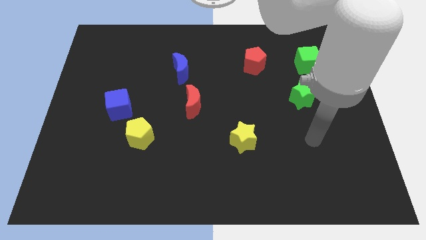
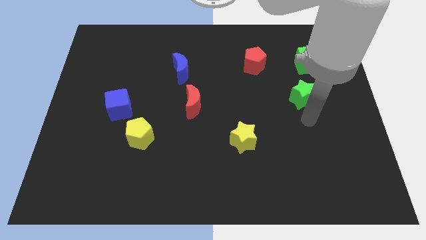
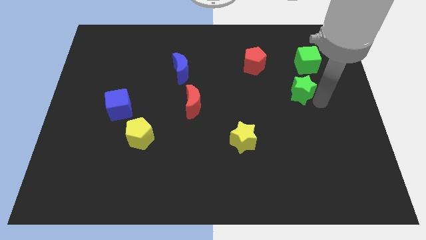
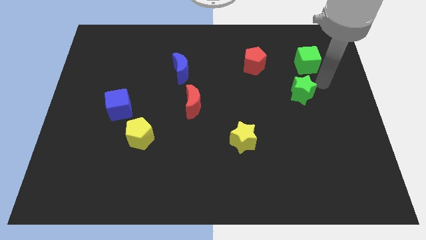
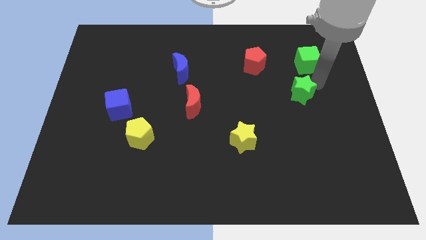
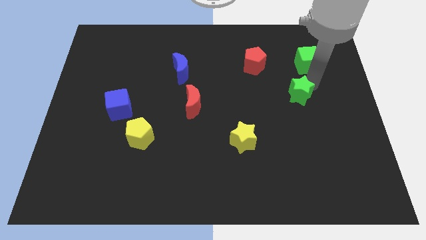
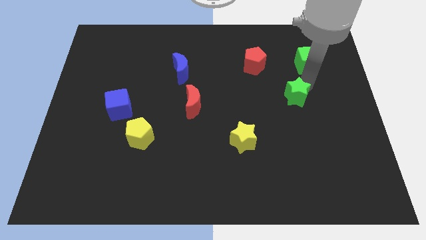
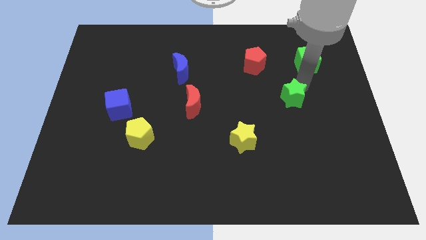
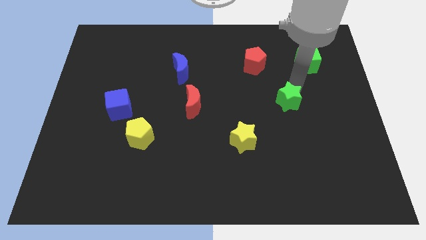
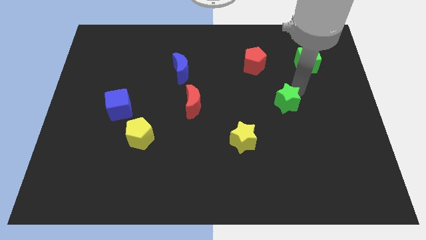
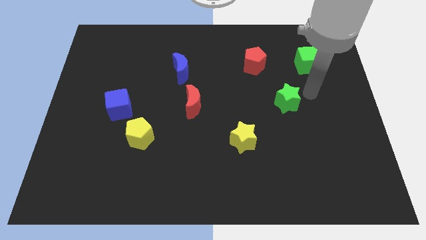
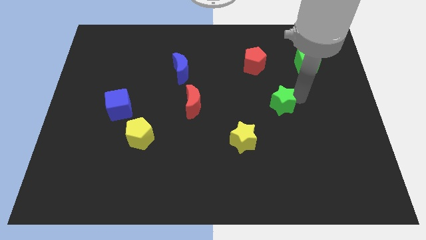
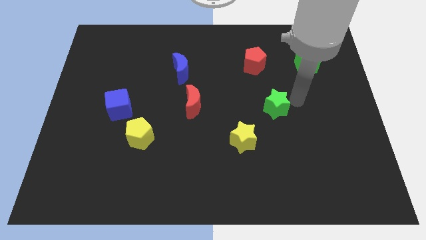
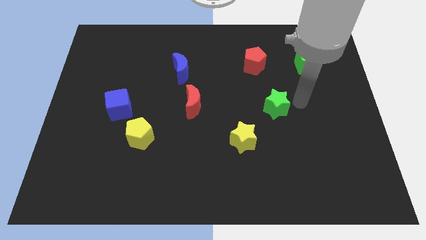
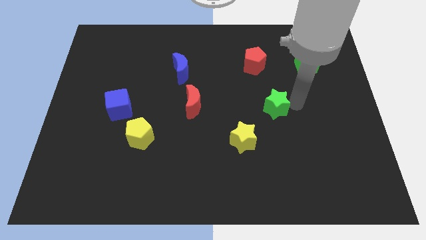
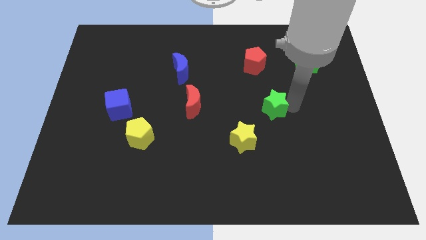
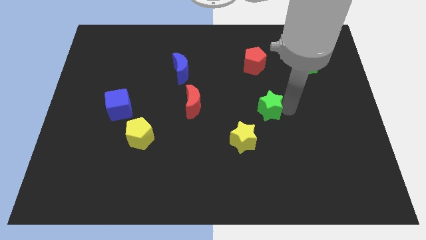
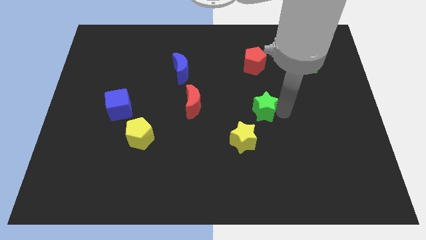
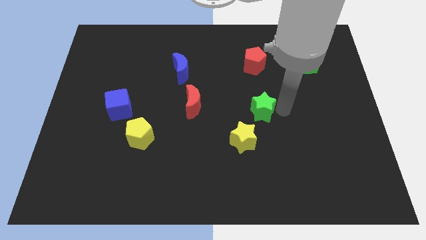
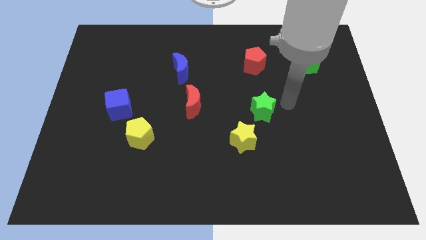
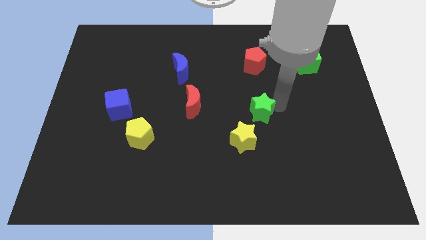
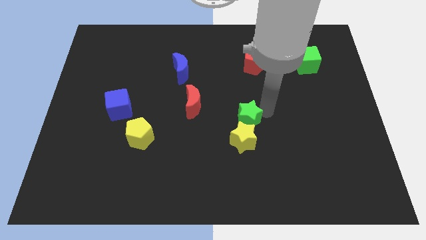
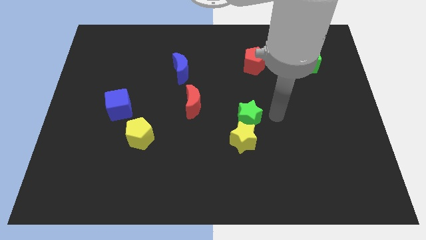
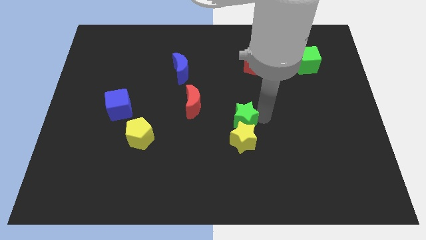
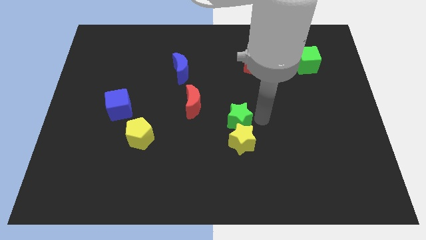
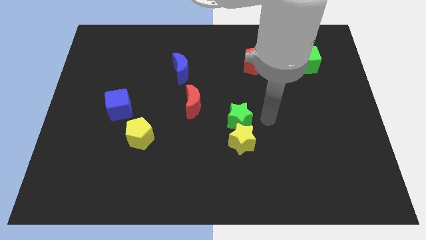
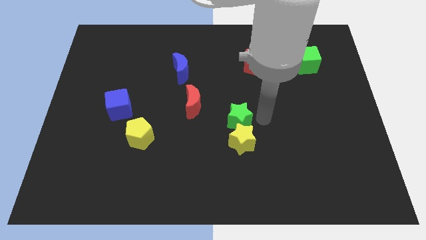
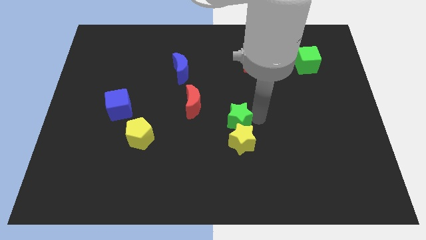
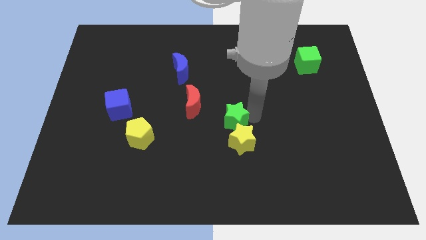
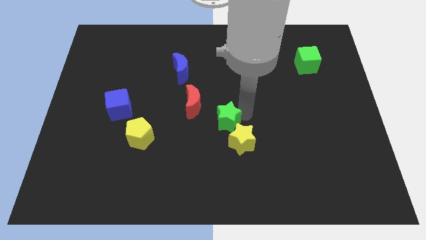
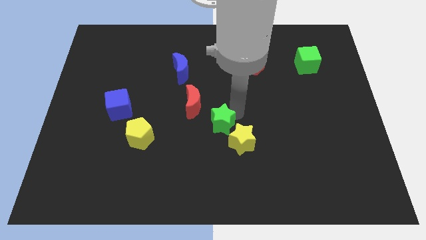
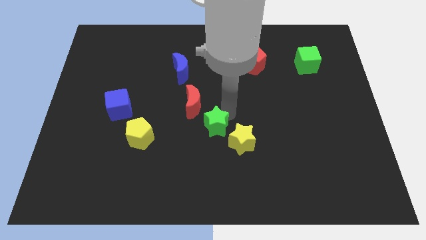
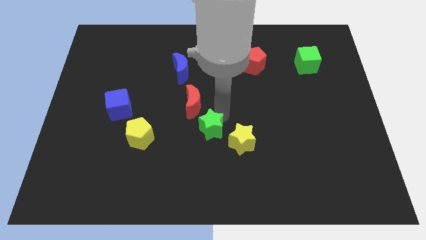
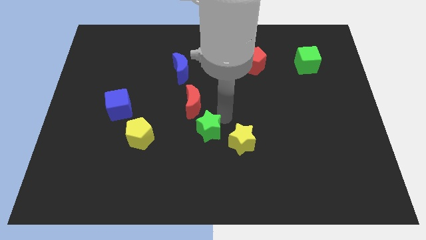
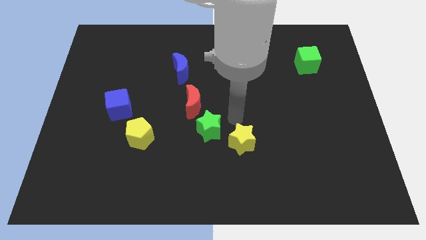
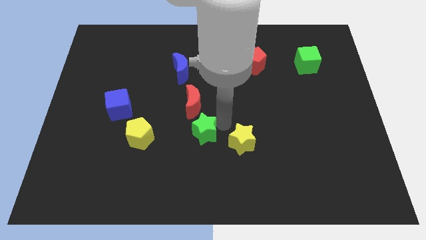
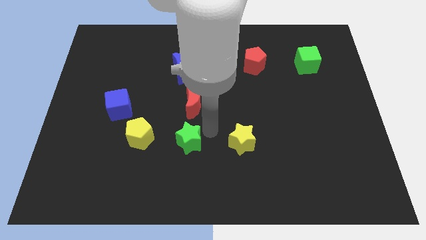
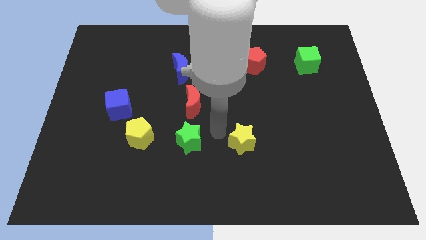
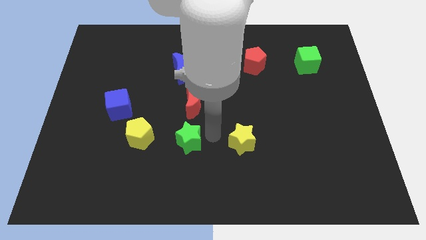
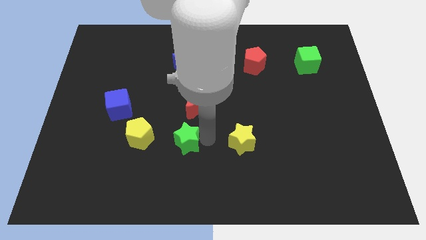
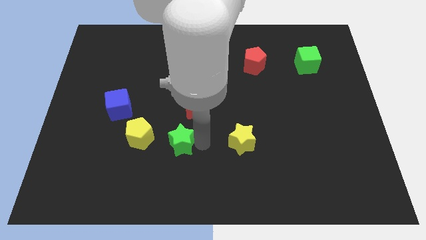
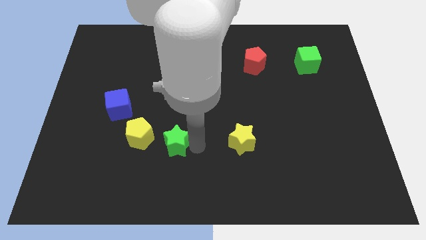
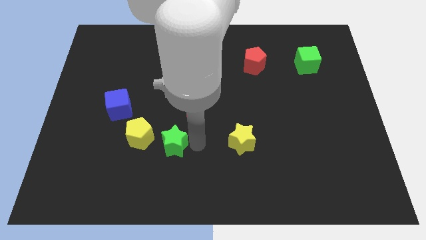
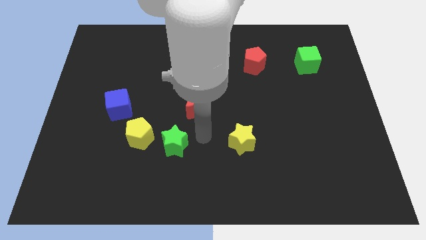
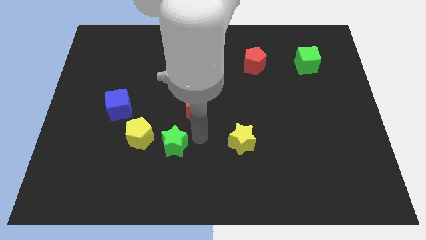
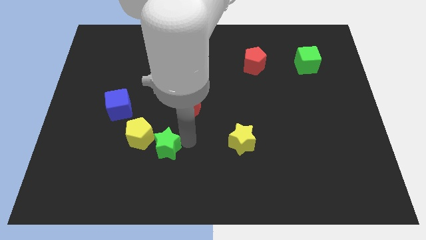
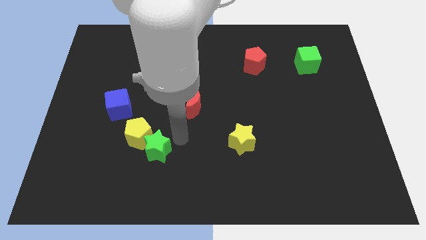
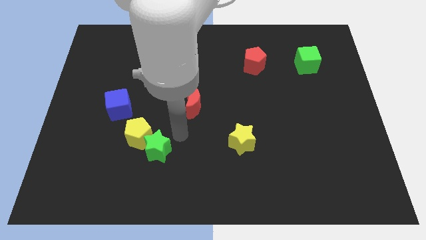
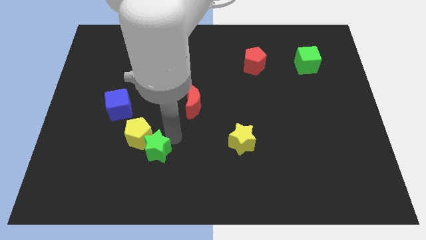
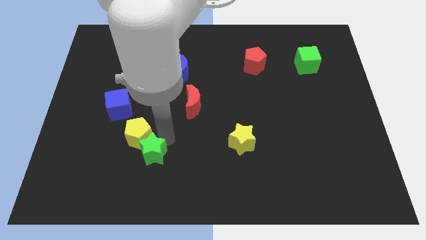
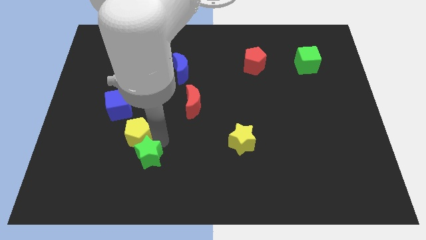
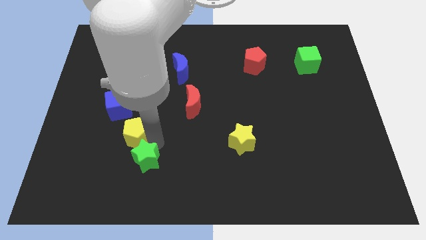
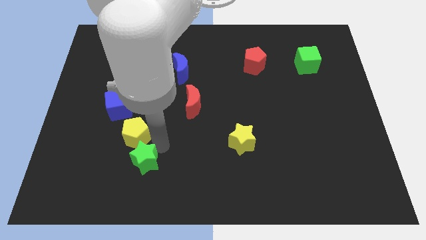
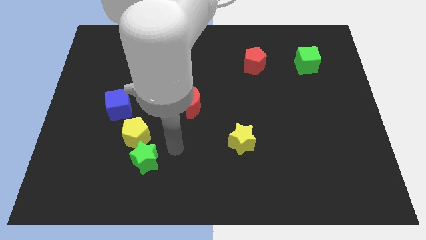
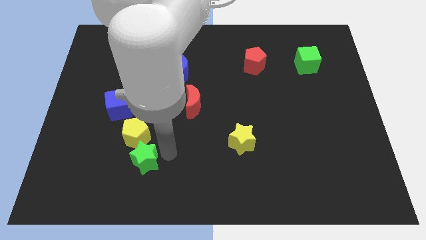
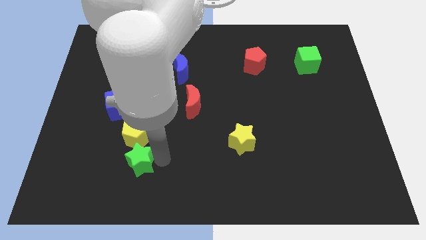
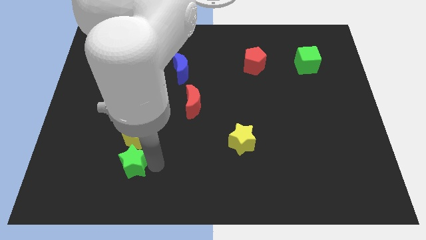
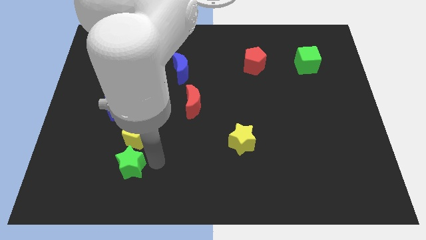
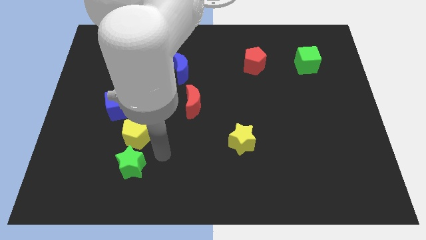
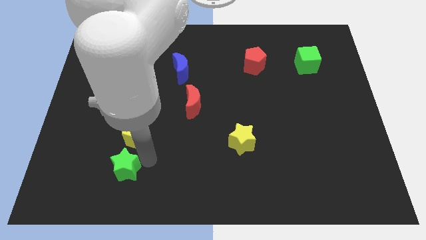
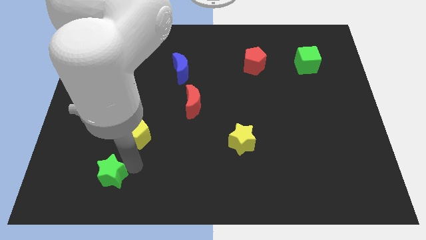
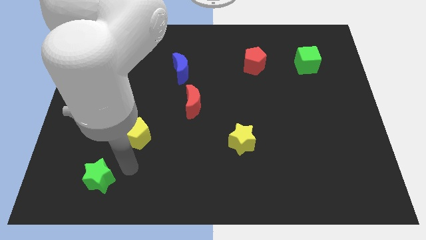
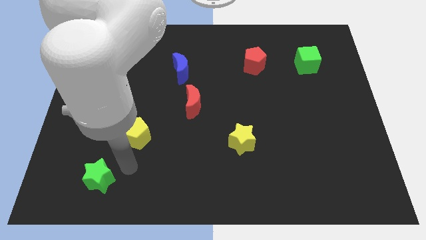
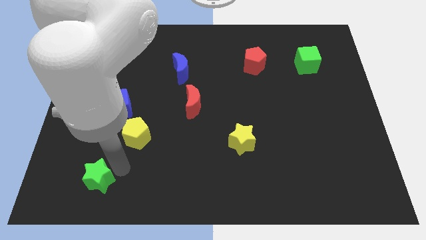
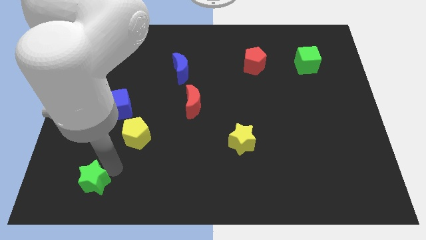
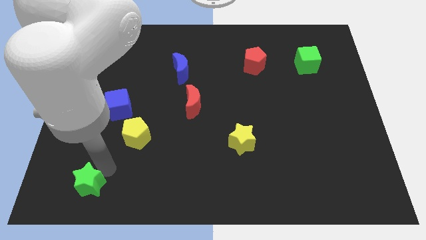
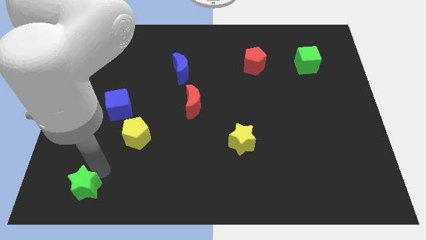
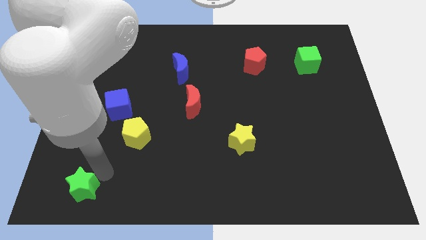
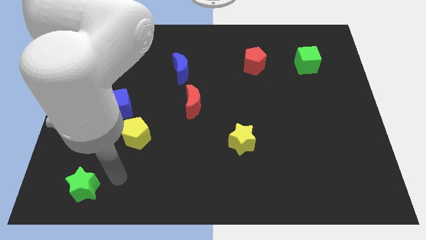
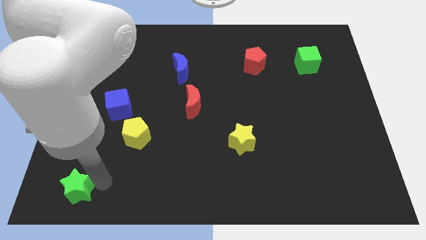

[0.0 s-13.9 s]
put the green star to the bottom left corner
